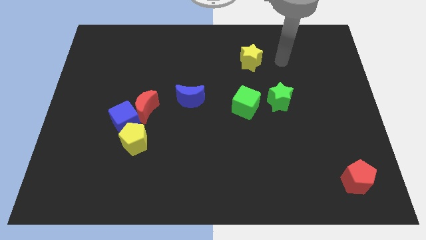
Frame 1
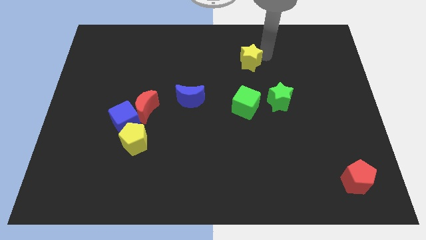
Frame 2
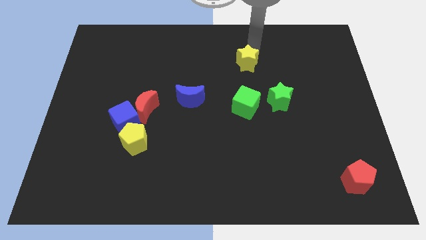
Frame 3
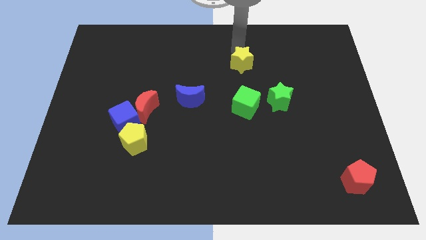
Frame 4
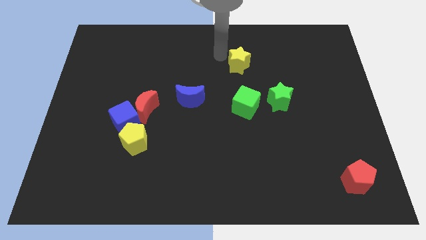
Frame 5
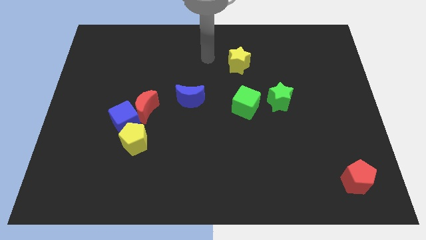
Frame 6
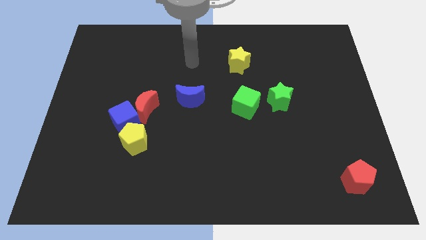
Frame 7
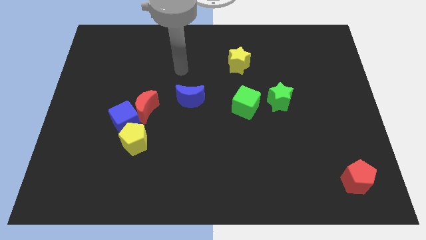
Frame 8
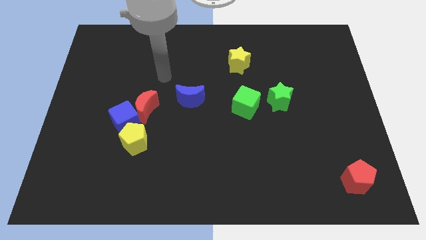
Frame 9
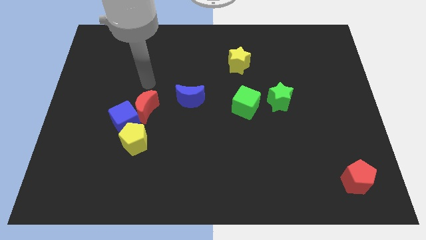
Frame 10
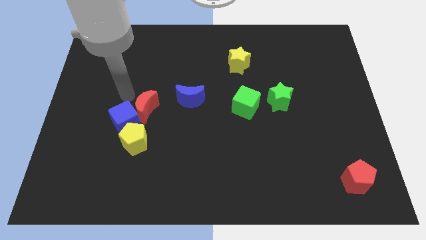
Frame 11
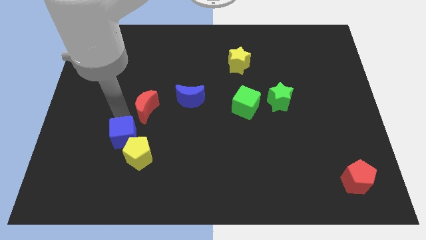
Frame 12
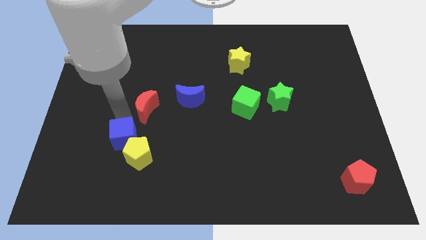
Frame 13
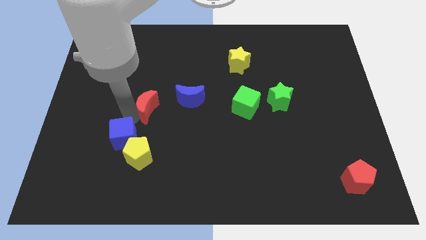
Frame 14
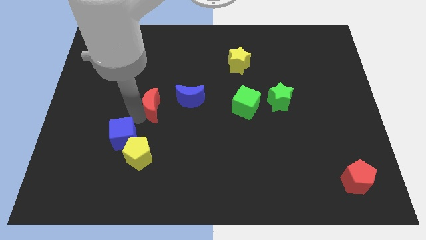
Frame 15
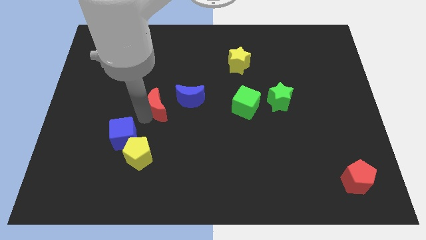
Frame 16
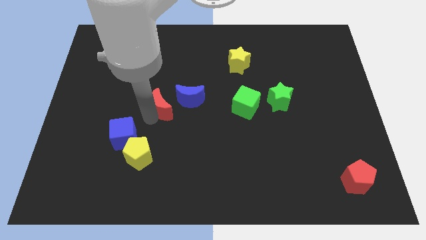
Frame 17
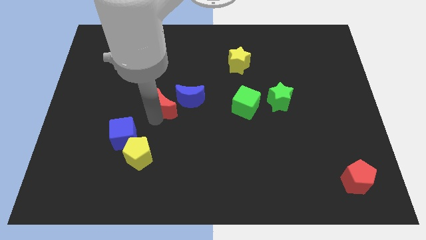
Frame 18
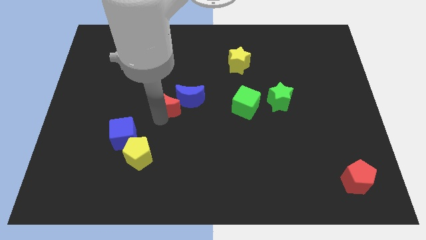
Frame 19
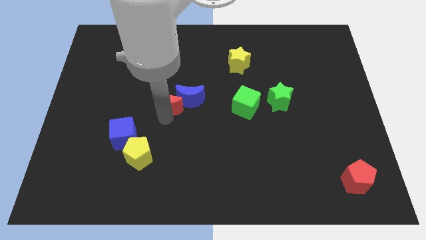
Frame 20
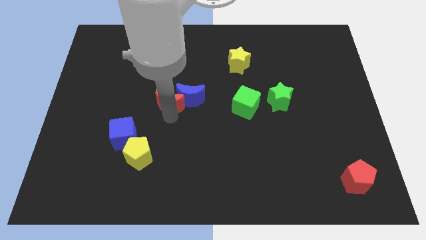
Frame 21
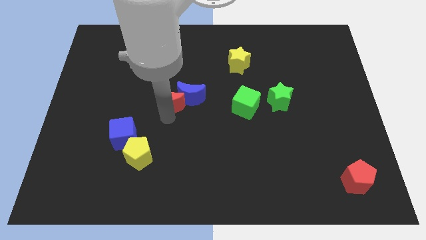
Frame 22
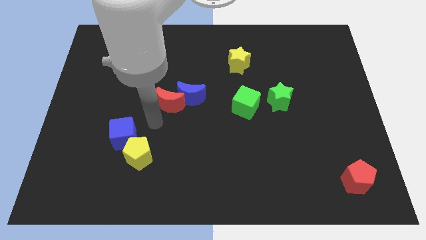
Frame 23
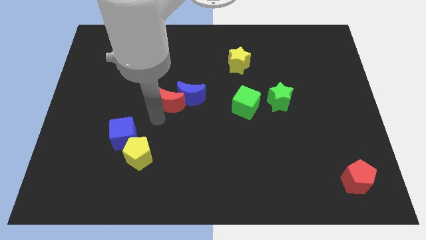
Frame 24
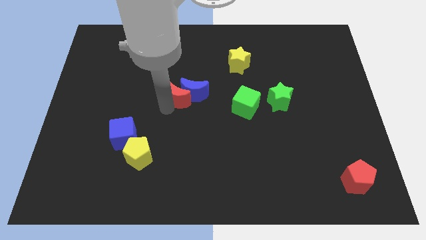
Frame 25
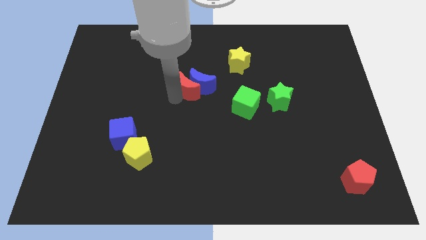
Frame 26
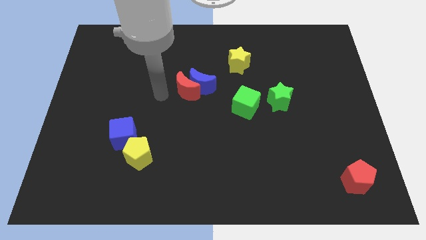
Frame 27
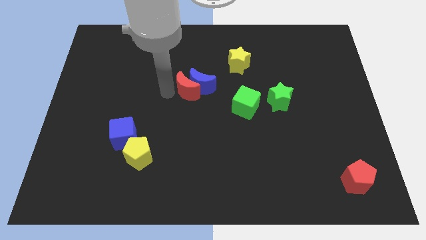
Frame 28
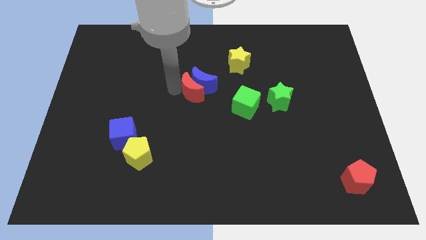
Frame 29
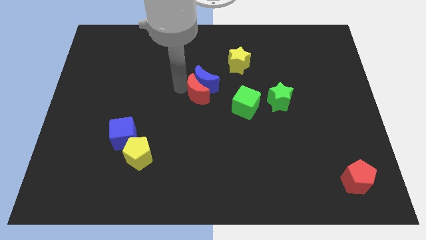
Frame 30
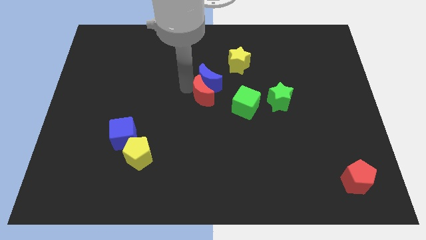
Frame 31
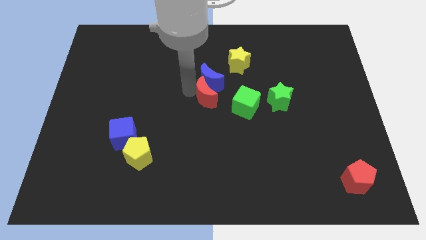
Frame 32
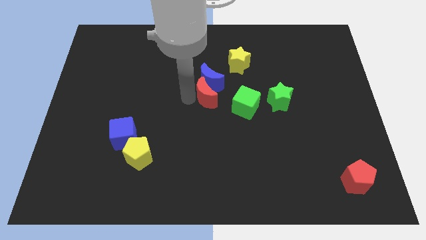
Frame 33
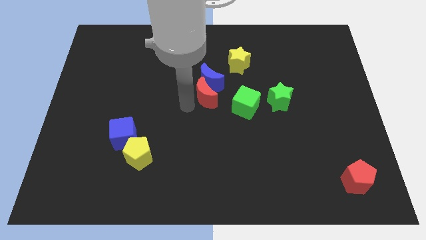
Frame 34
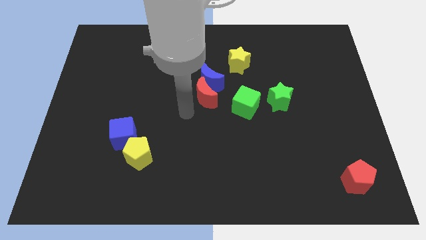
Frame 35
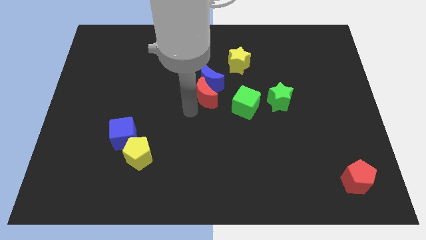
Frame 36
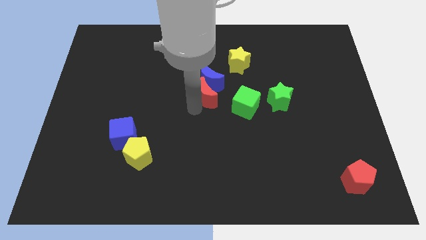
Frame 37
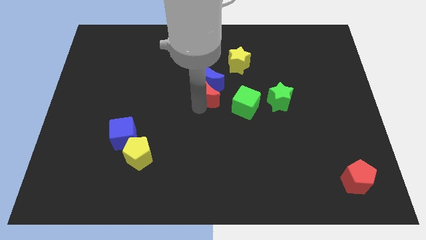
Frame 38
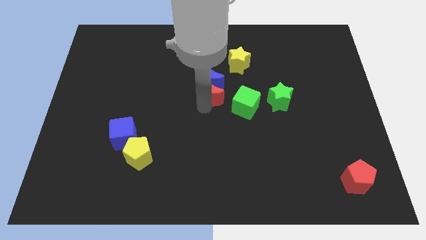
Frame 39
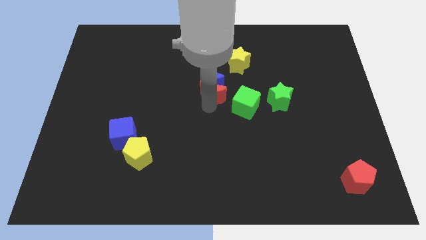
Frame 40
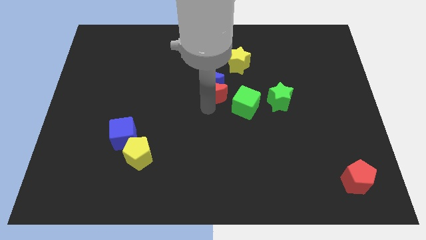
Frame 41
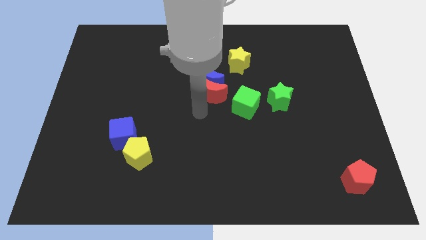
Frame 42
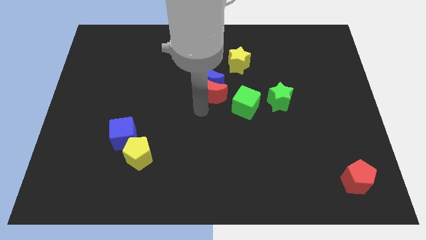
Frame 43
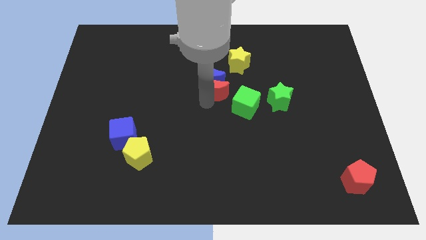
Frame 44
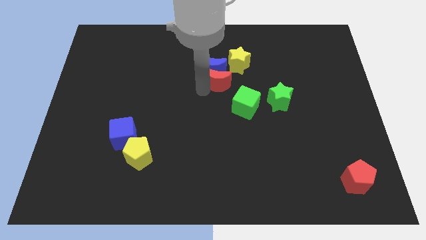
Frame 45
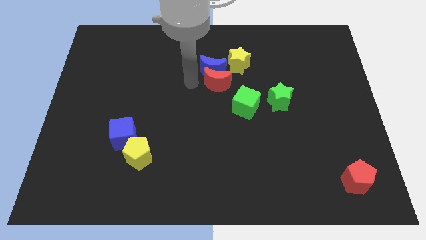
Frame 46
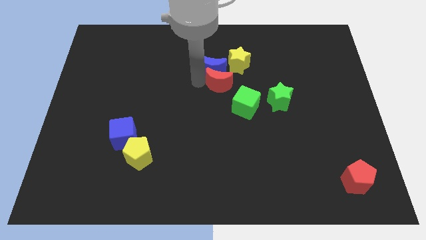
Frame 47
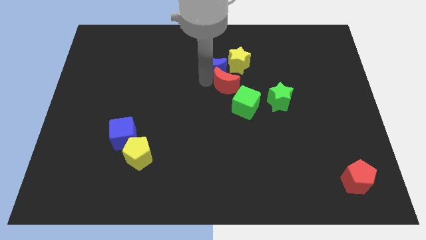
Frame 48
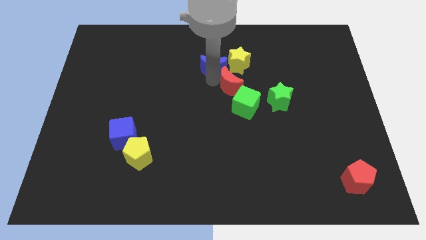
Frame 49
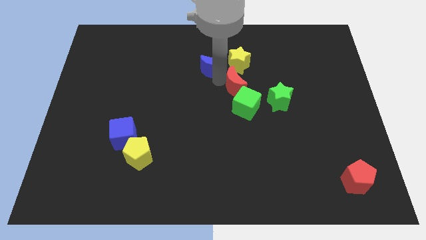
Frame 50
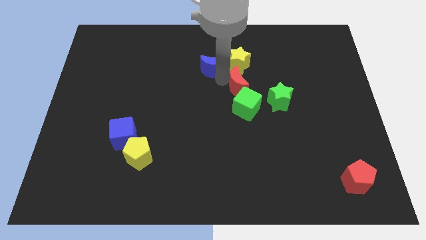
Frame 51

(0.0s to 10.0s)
put the red moon to the top left side of the green star

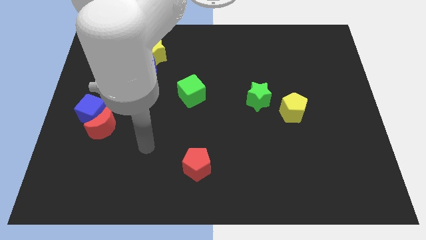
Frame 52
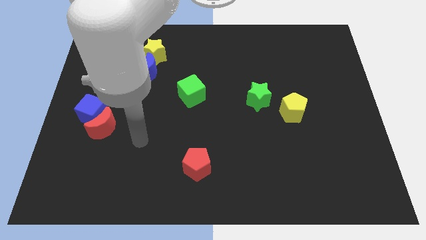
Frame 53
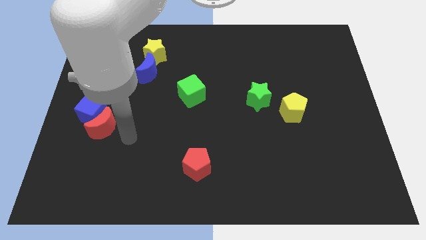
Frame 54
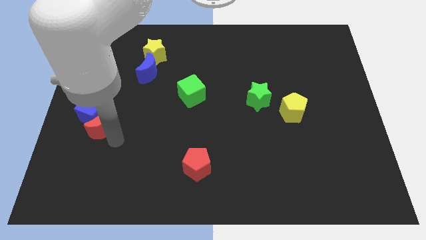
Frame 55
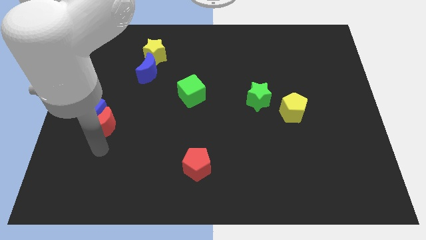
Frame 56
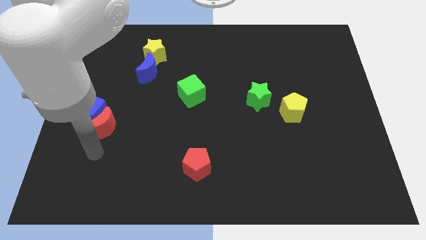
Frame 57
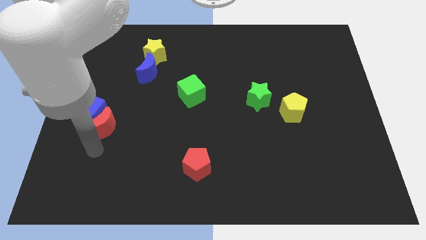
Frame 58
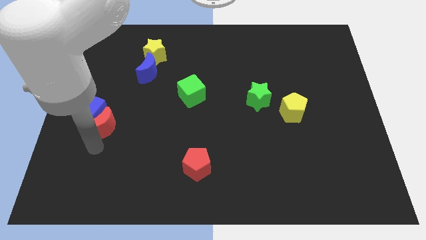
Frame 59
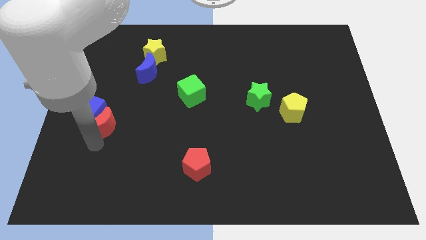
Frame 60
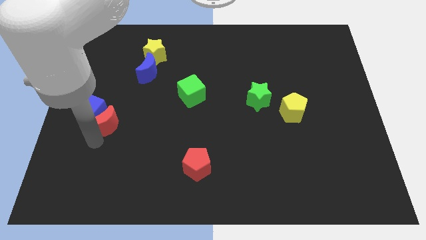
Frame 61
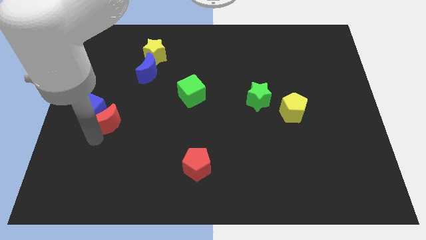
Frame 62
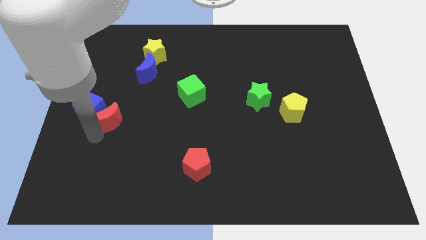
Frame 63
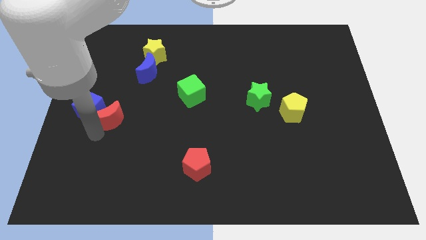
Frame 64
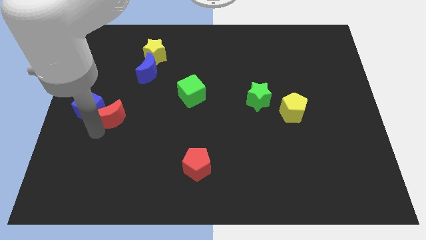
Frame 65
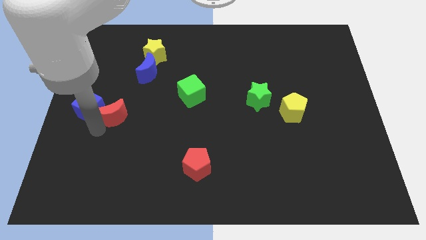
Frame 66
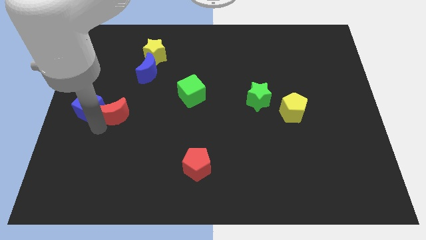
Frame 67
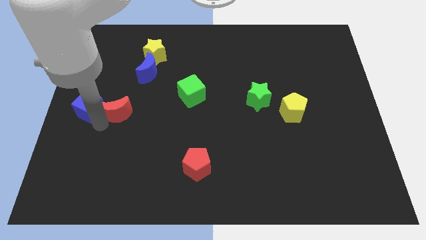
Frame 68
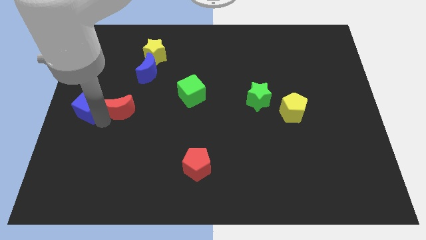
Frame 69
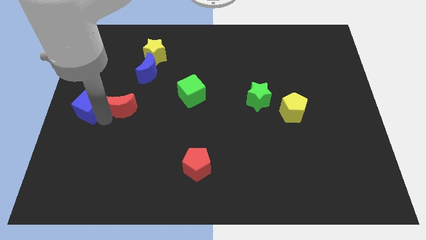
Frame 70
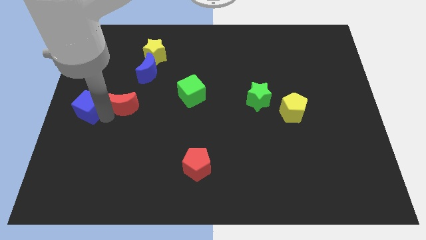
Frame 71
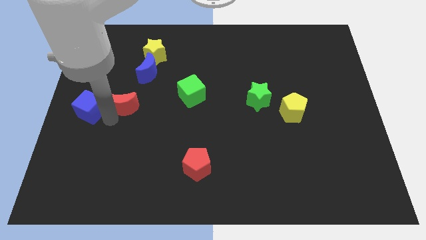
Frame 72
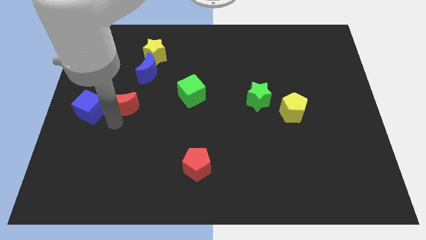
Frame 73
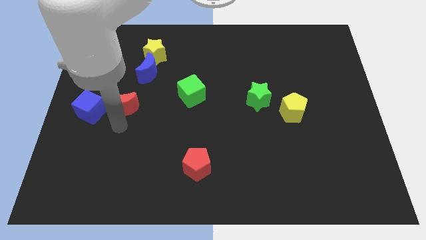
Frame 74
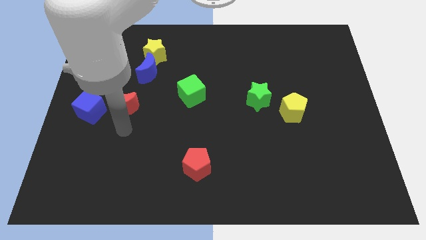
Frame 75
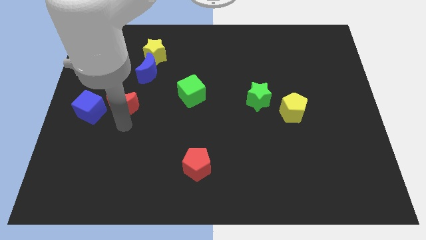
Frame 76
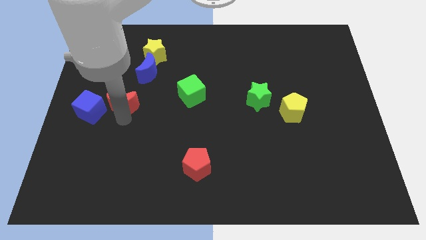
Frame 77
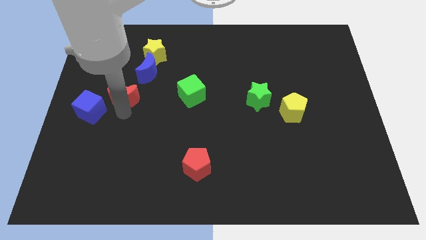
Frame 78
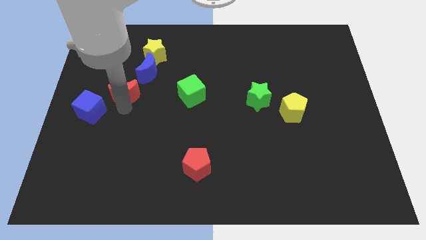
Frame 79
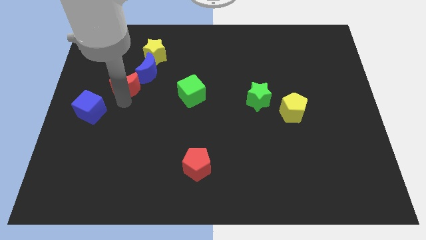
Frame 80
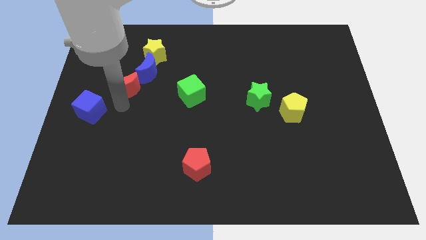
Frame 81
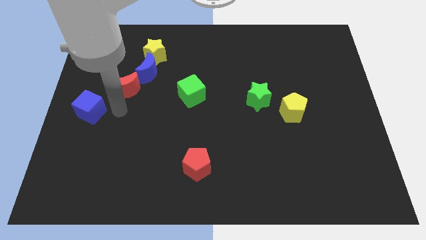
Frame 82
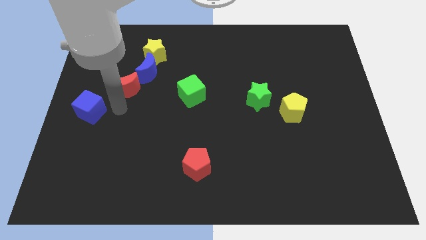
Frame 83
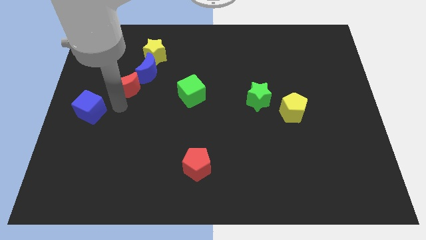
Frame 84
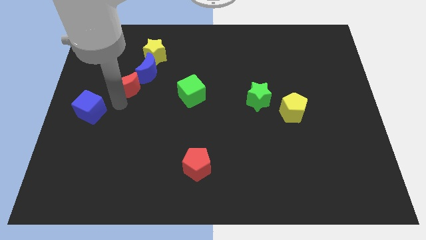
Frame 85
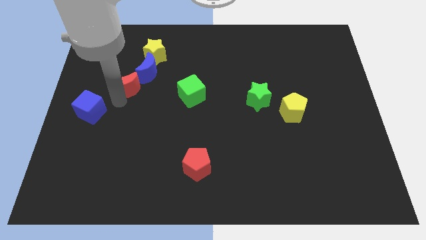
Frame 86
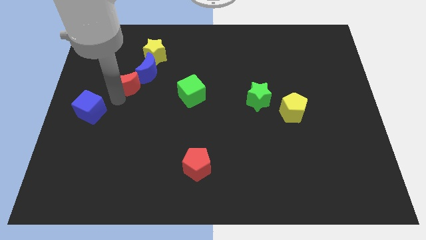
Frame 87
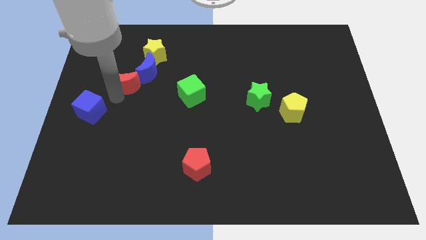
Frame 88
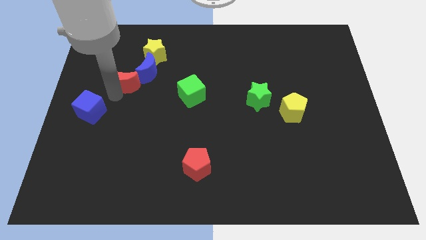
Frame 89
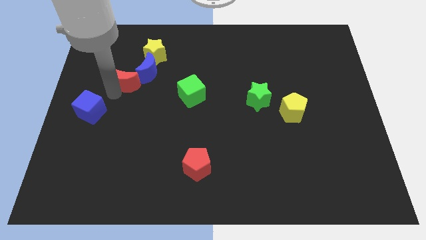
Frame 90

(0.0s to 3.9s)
put the red moon diagonally down and to the left of the yellow star
